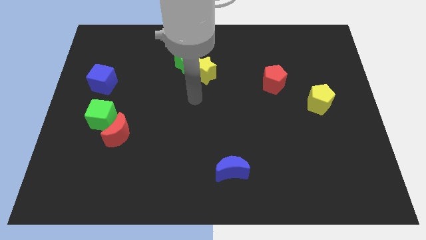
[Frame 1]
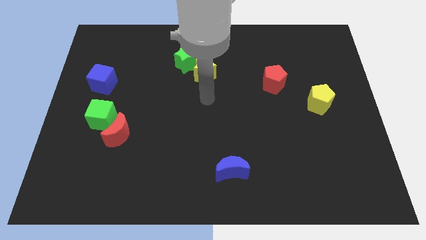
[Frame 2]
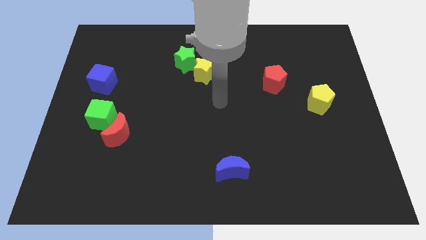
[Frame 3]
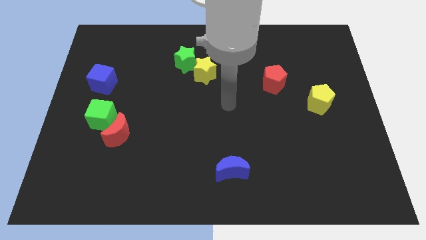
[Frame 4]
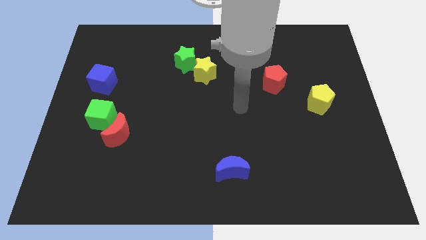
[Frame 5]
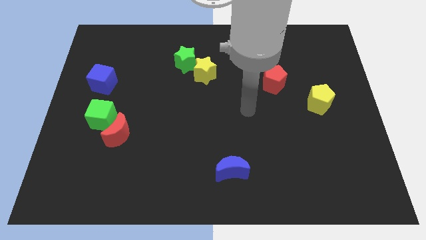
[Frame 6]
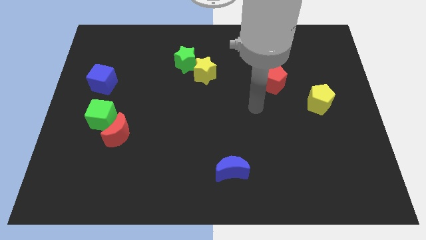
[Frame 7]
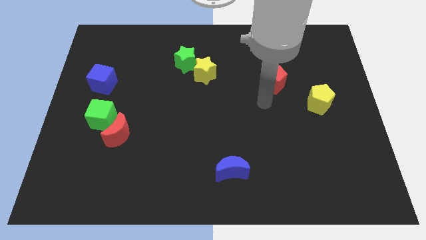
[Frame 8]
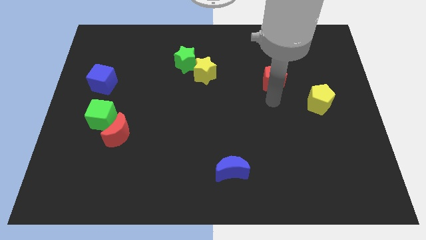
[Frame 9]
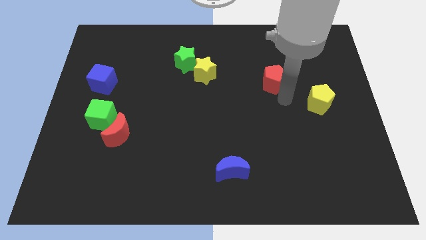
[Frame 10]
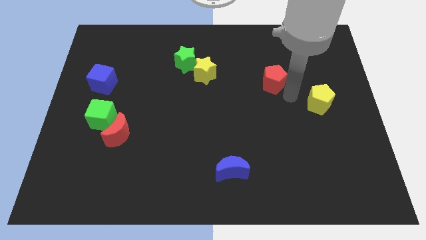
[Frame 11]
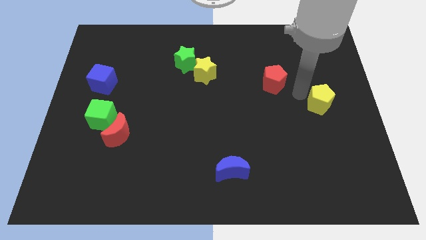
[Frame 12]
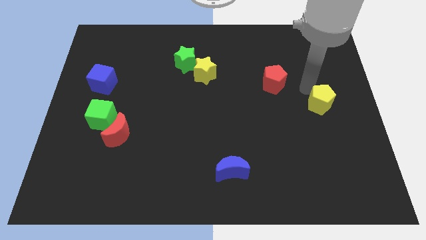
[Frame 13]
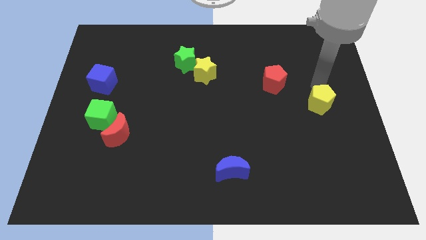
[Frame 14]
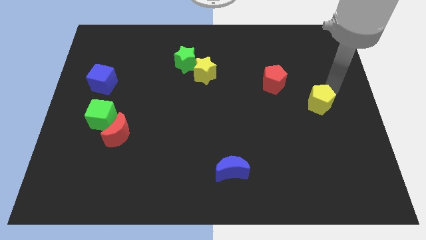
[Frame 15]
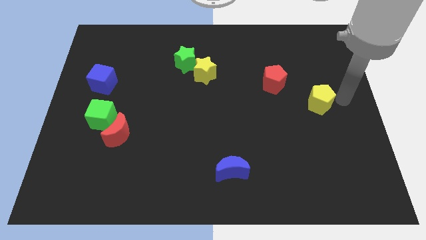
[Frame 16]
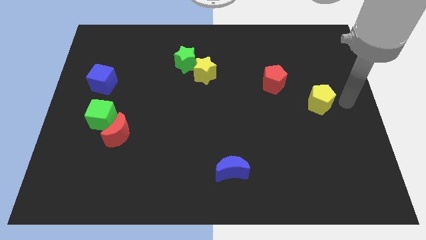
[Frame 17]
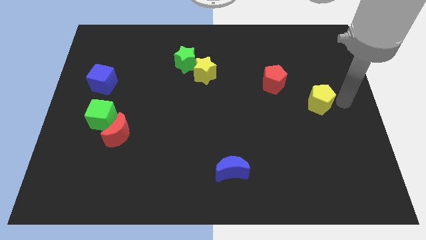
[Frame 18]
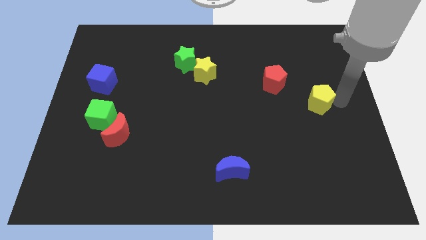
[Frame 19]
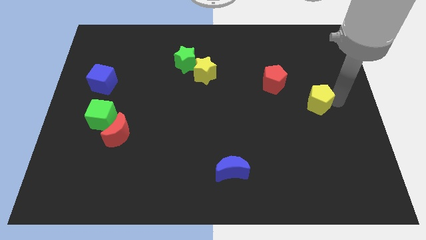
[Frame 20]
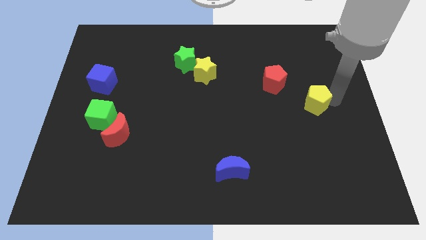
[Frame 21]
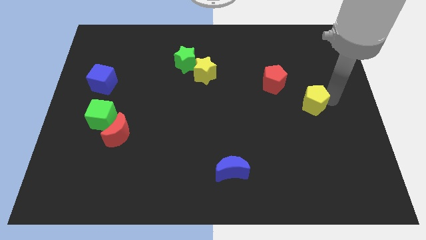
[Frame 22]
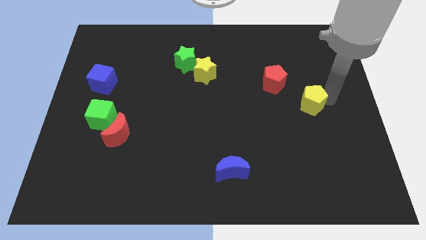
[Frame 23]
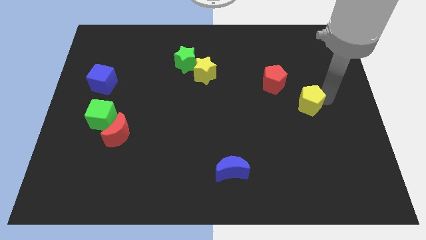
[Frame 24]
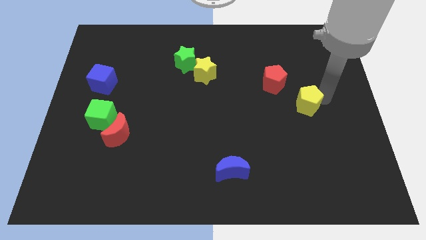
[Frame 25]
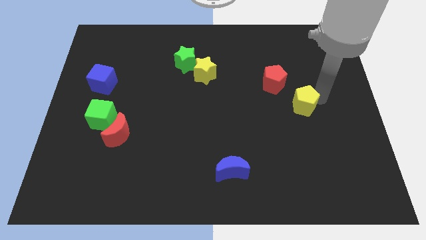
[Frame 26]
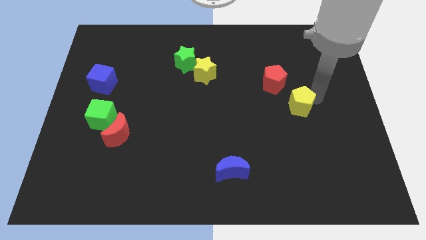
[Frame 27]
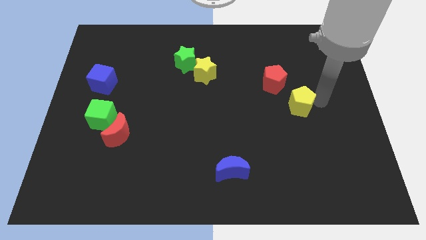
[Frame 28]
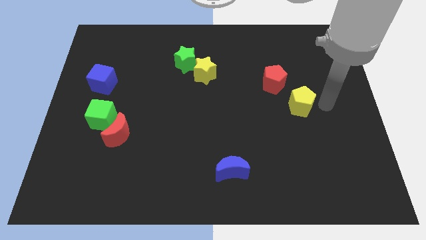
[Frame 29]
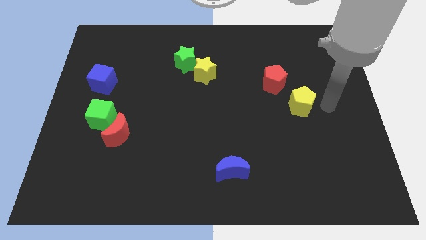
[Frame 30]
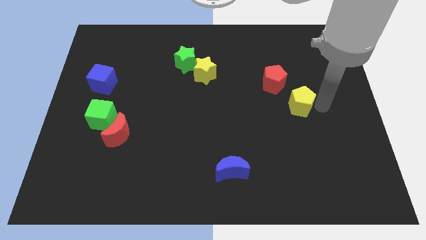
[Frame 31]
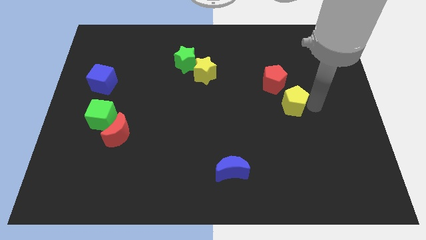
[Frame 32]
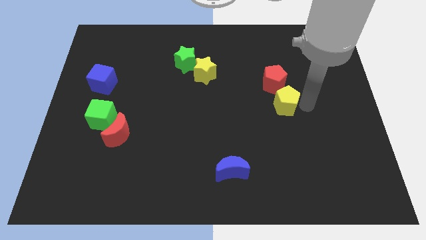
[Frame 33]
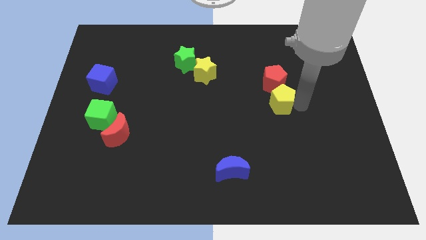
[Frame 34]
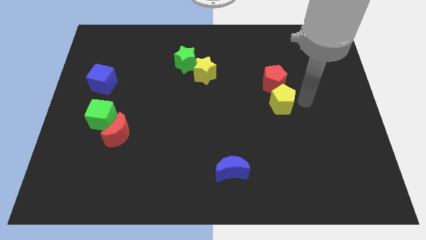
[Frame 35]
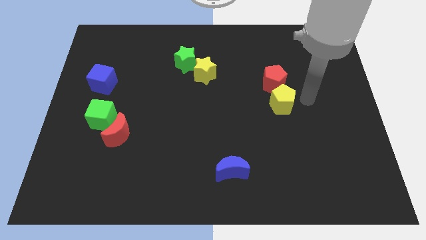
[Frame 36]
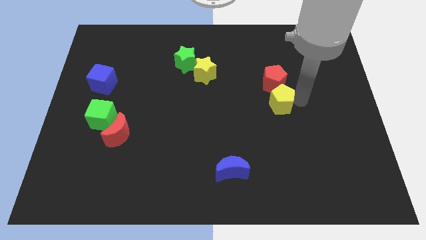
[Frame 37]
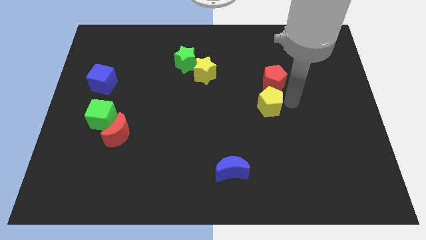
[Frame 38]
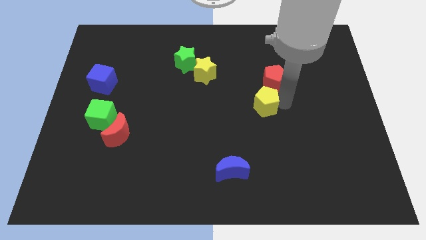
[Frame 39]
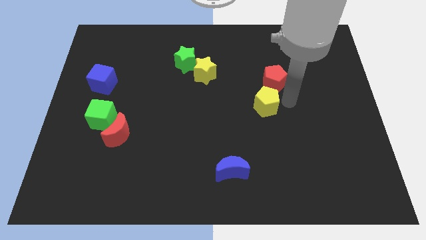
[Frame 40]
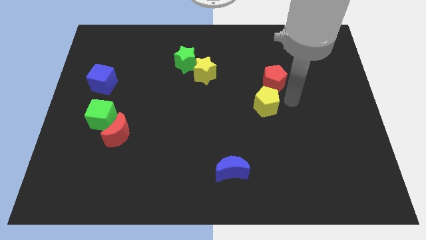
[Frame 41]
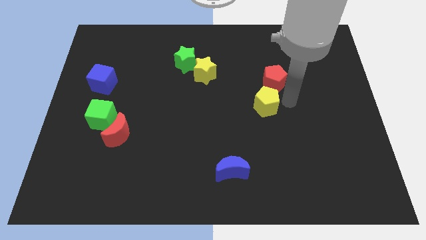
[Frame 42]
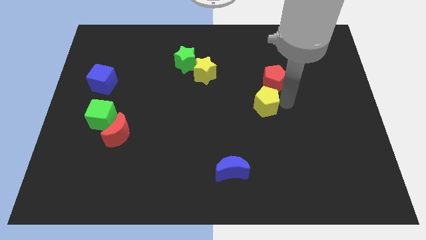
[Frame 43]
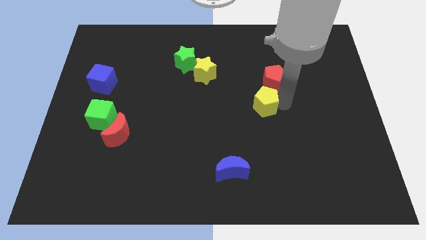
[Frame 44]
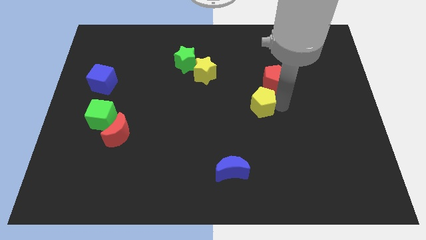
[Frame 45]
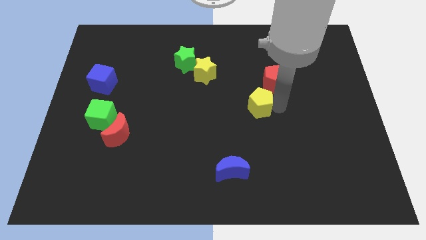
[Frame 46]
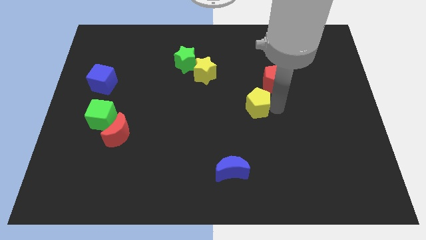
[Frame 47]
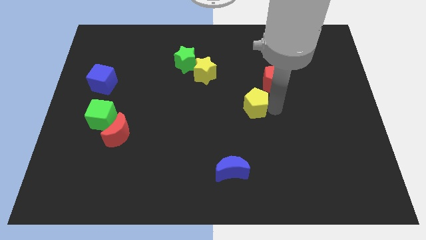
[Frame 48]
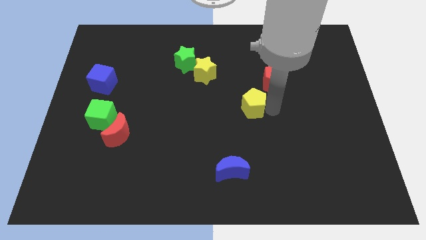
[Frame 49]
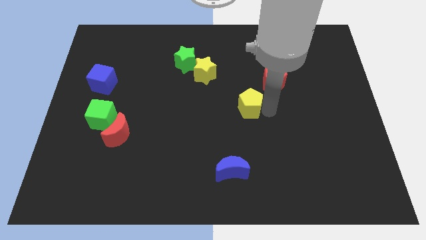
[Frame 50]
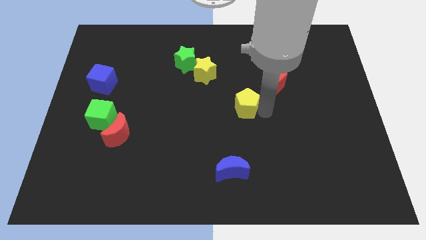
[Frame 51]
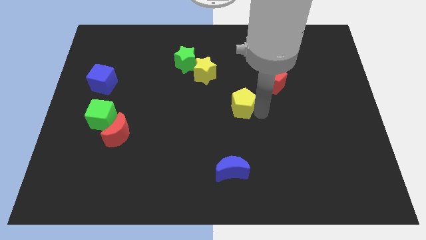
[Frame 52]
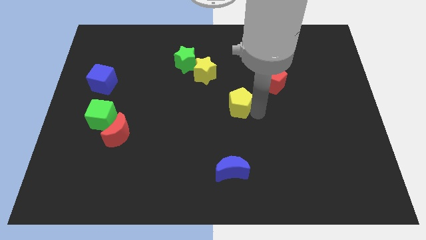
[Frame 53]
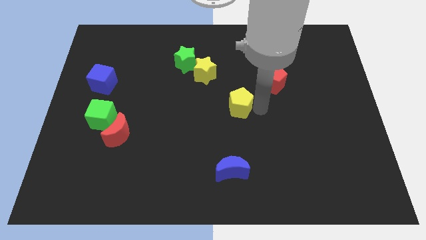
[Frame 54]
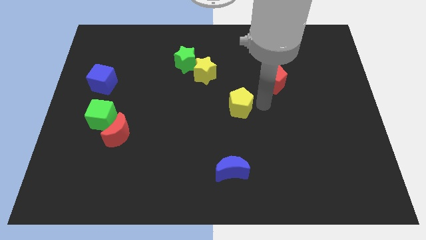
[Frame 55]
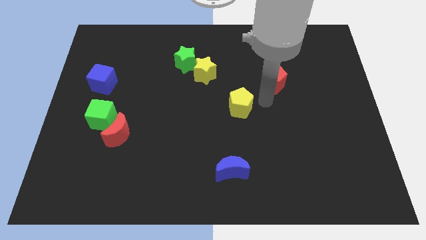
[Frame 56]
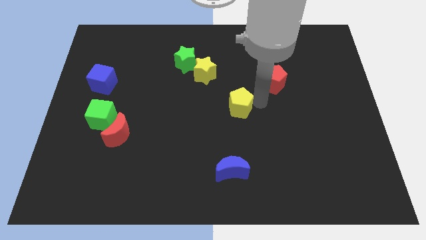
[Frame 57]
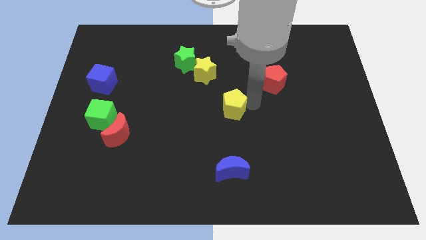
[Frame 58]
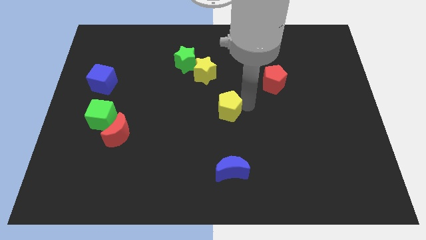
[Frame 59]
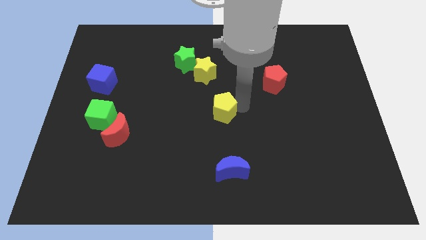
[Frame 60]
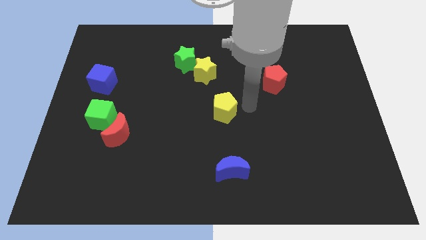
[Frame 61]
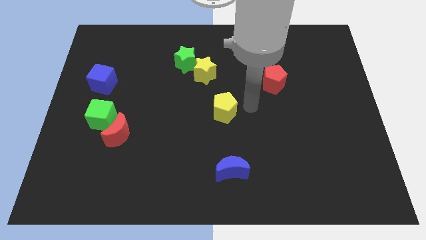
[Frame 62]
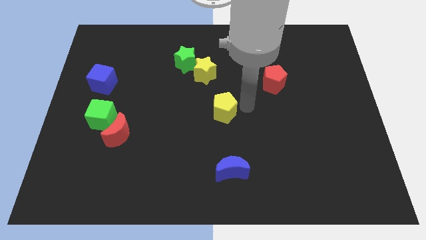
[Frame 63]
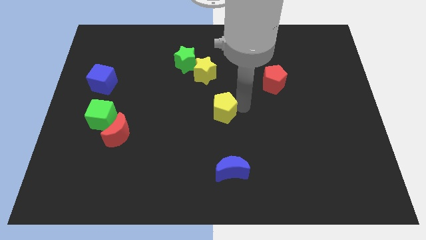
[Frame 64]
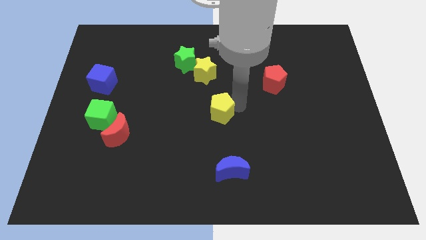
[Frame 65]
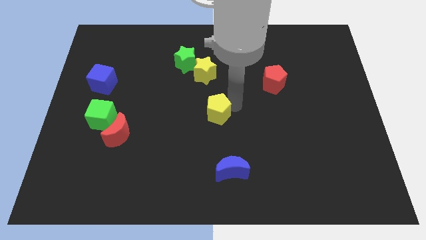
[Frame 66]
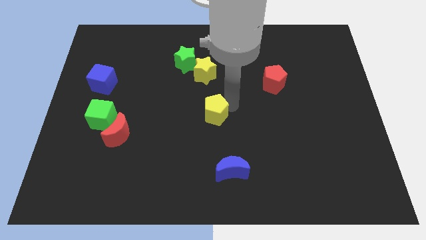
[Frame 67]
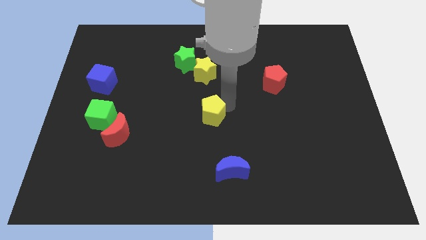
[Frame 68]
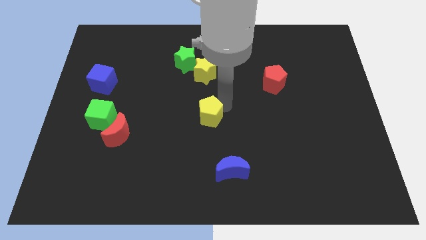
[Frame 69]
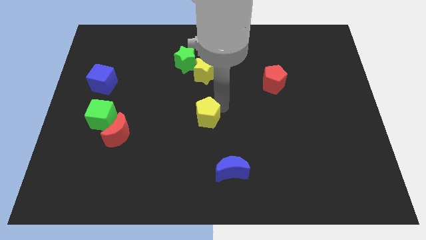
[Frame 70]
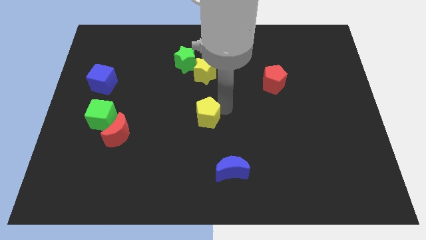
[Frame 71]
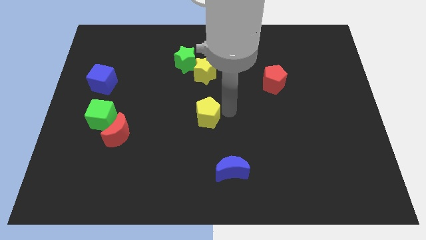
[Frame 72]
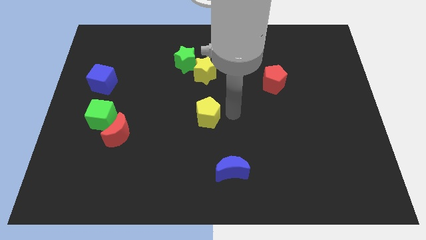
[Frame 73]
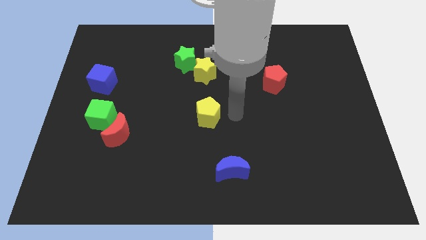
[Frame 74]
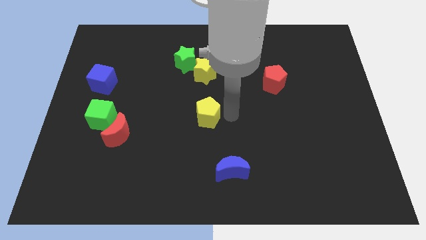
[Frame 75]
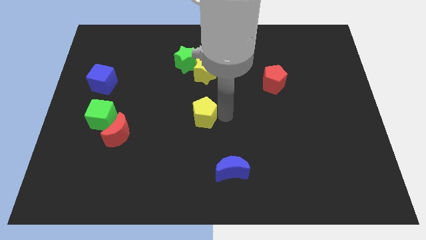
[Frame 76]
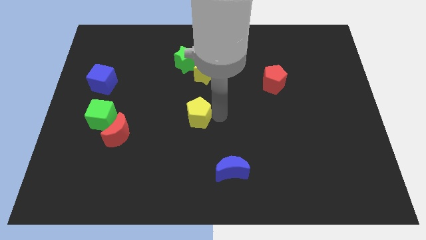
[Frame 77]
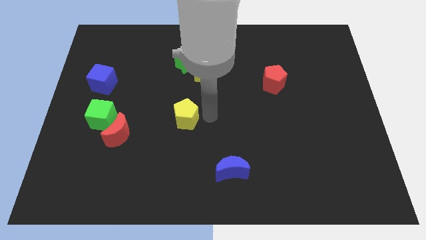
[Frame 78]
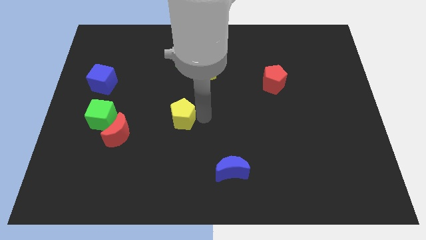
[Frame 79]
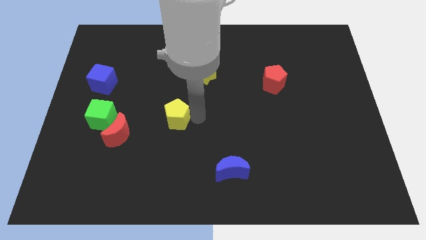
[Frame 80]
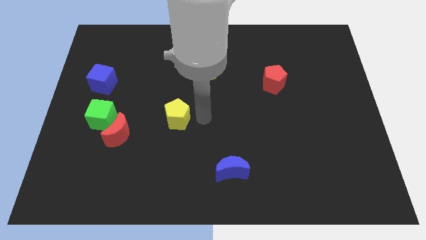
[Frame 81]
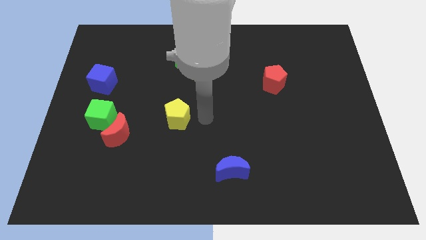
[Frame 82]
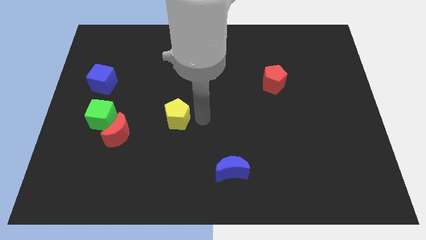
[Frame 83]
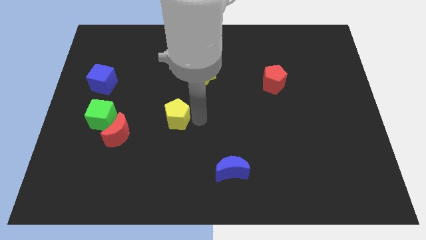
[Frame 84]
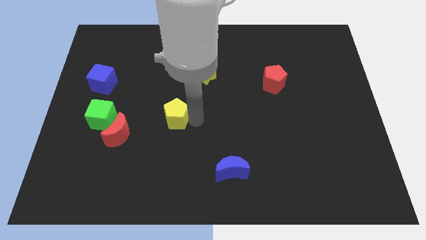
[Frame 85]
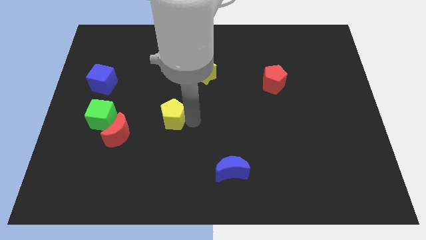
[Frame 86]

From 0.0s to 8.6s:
move the yellow pentagon to the right of the green cube
